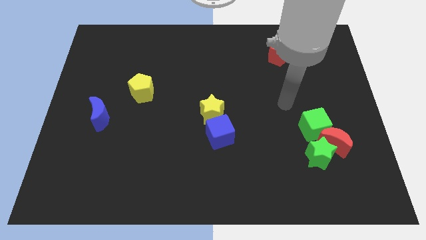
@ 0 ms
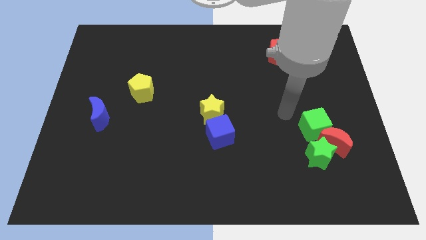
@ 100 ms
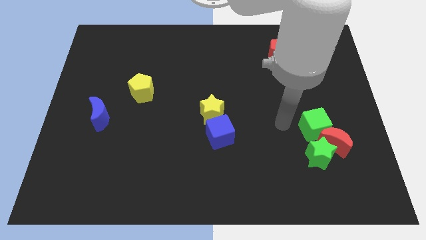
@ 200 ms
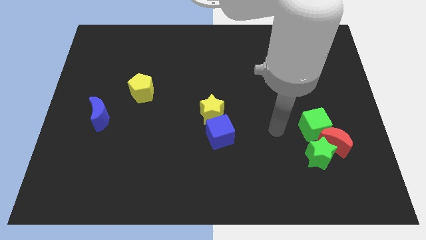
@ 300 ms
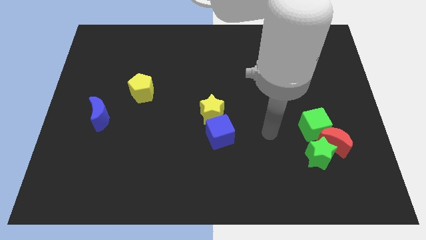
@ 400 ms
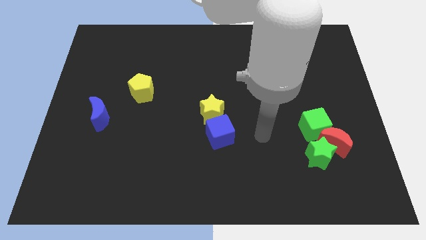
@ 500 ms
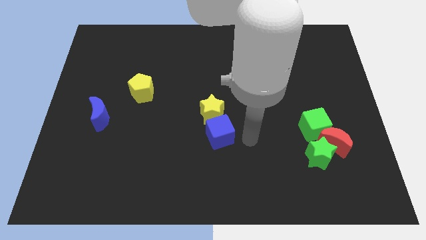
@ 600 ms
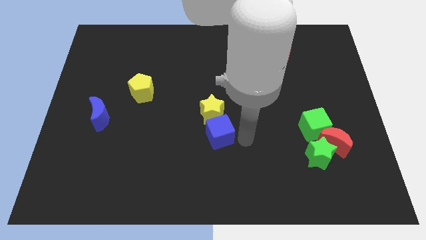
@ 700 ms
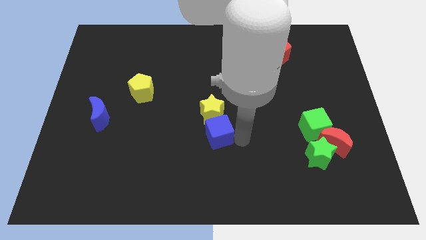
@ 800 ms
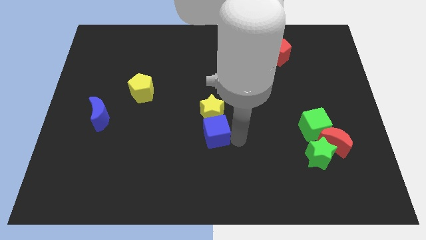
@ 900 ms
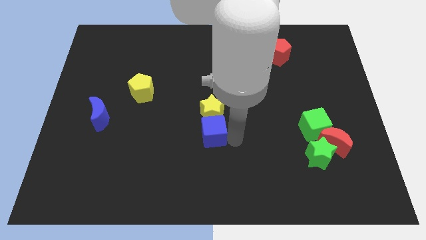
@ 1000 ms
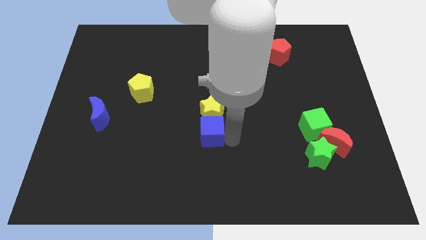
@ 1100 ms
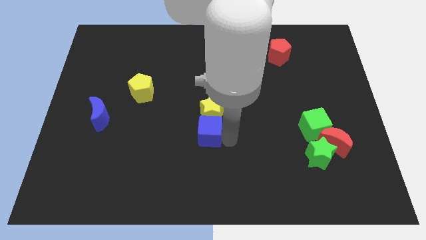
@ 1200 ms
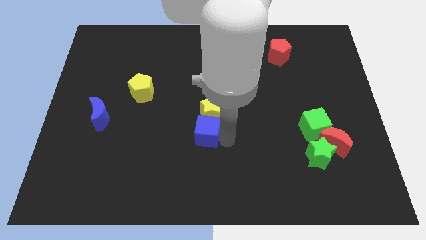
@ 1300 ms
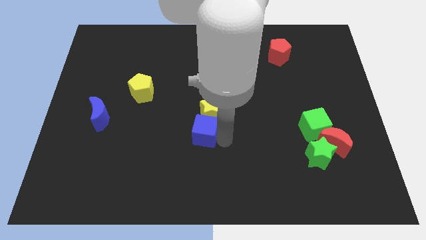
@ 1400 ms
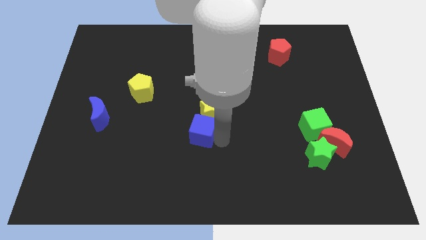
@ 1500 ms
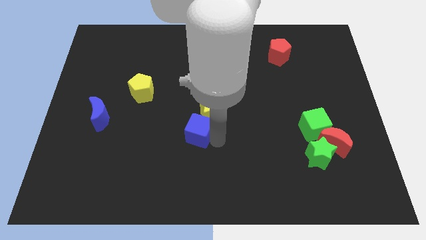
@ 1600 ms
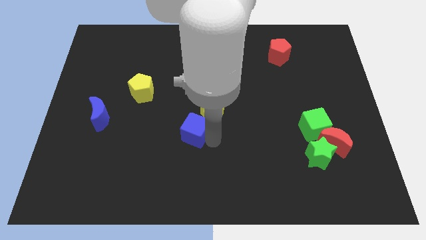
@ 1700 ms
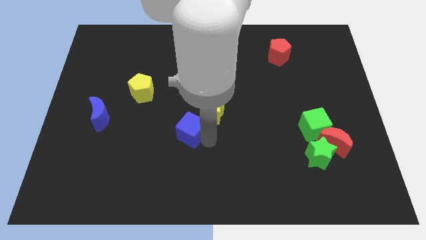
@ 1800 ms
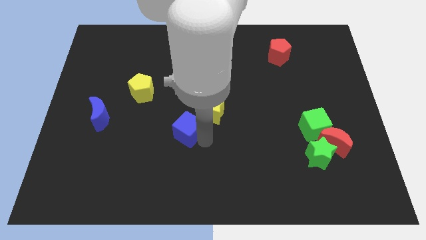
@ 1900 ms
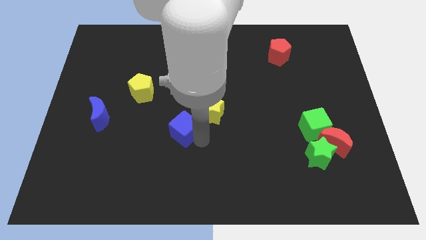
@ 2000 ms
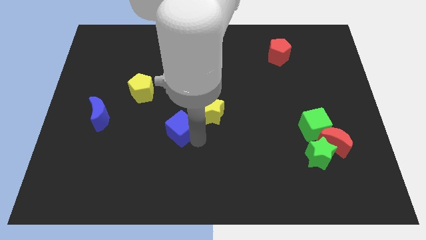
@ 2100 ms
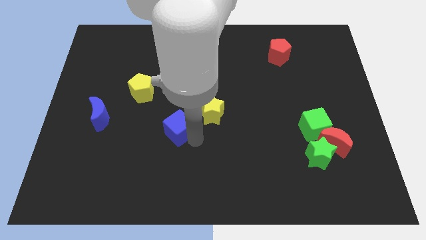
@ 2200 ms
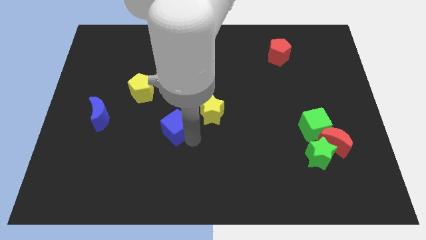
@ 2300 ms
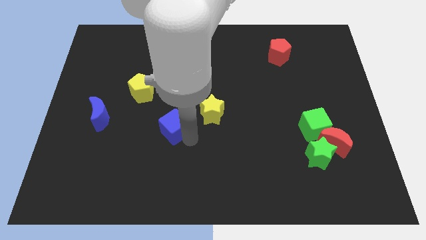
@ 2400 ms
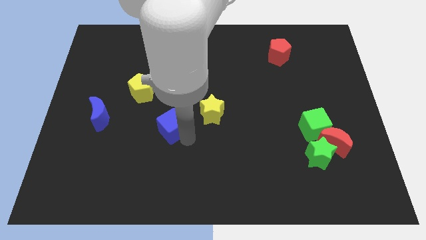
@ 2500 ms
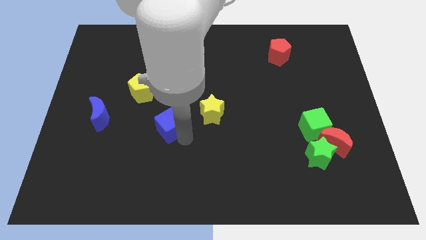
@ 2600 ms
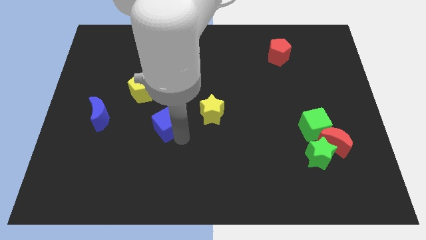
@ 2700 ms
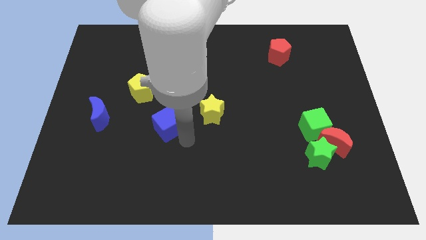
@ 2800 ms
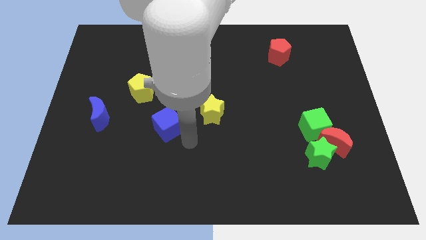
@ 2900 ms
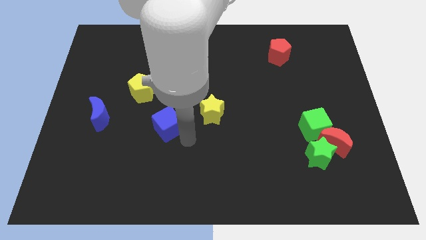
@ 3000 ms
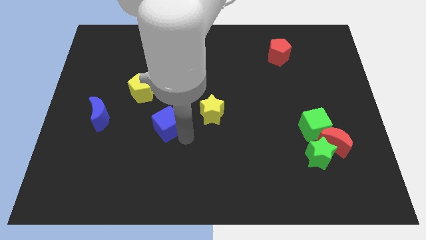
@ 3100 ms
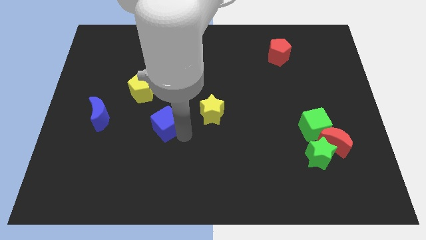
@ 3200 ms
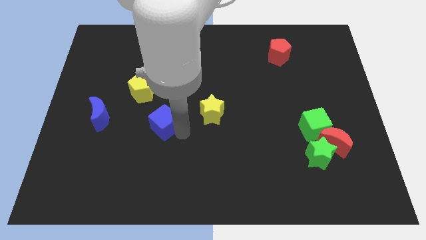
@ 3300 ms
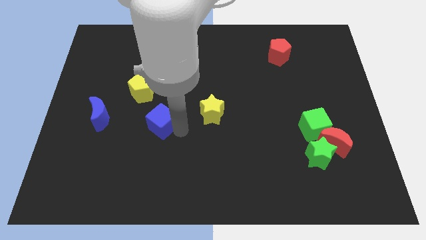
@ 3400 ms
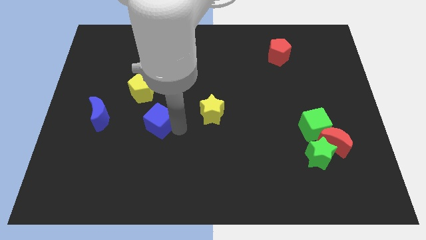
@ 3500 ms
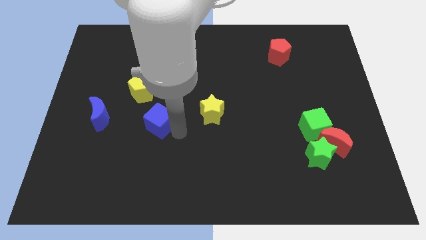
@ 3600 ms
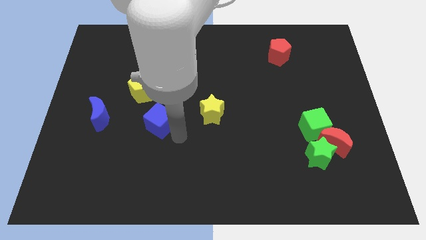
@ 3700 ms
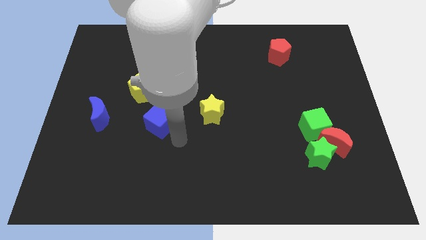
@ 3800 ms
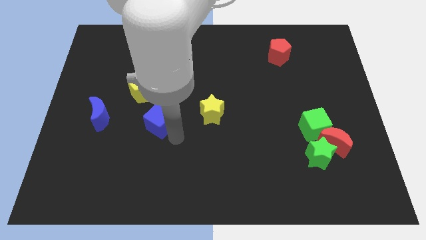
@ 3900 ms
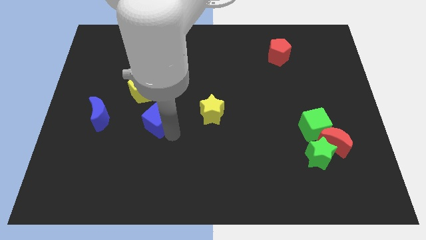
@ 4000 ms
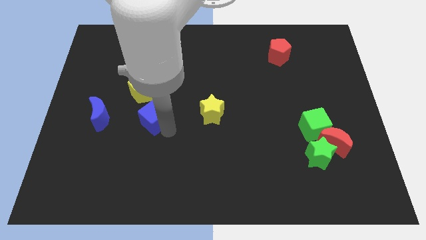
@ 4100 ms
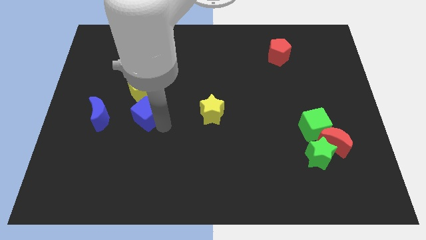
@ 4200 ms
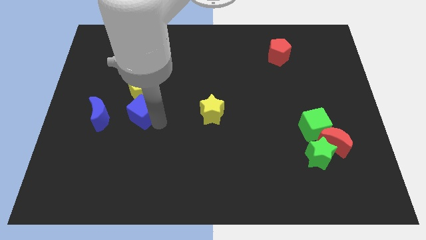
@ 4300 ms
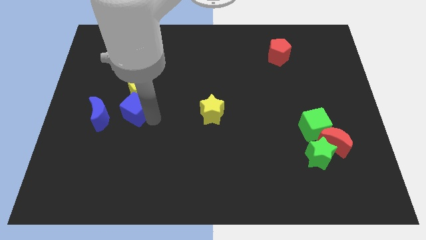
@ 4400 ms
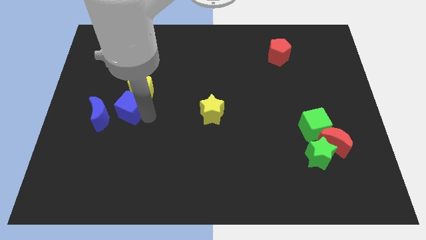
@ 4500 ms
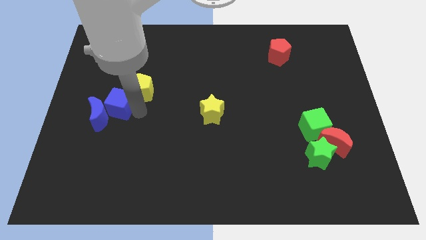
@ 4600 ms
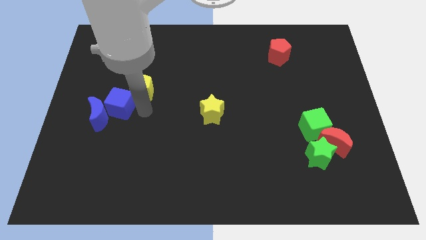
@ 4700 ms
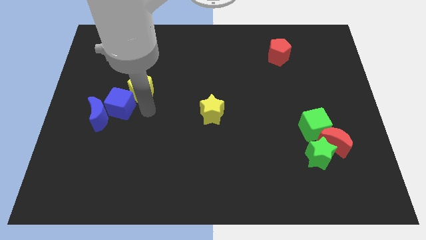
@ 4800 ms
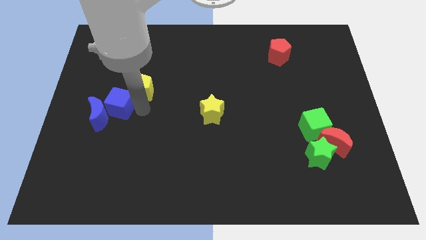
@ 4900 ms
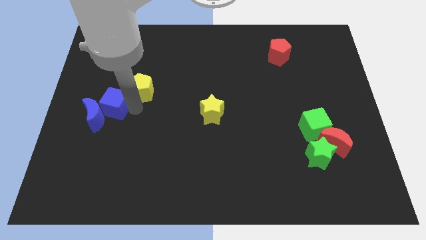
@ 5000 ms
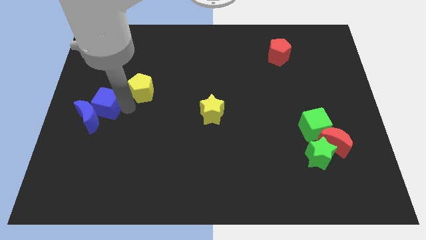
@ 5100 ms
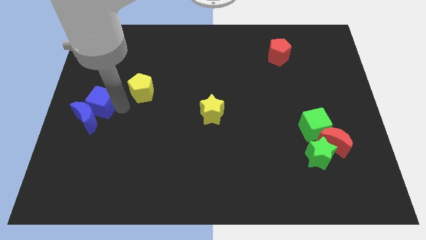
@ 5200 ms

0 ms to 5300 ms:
push the blue cube to the left side of the board

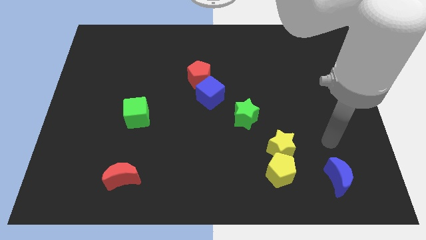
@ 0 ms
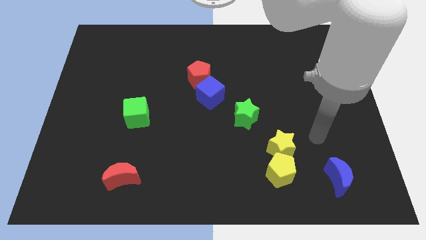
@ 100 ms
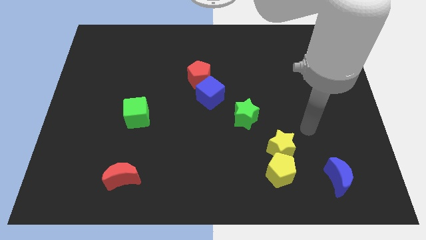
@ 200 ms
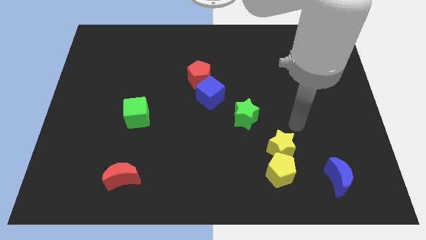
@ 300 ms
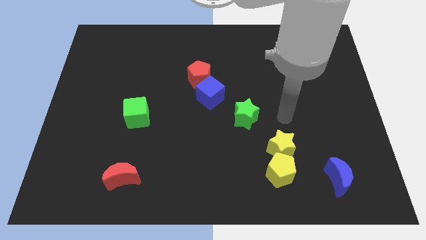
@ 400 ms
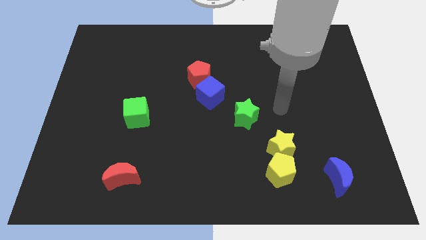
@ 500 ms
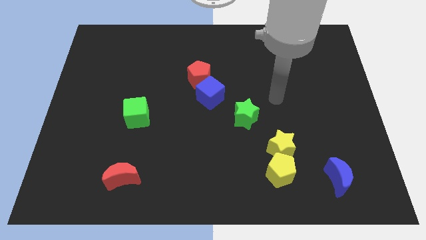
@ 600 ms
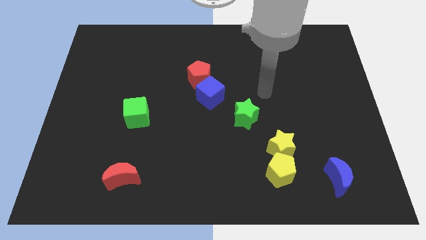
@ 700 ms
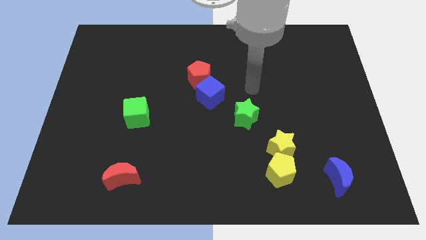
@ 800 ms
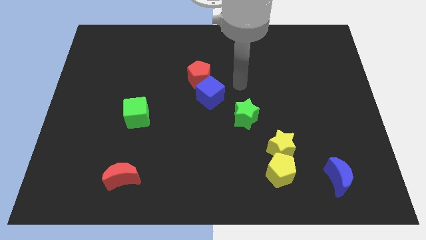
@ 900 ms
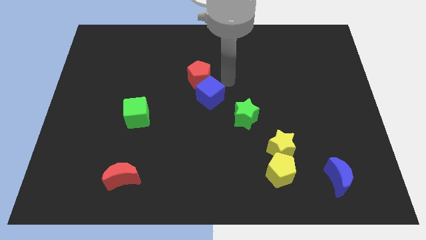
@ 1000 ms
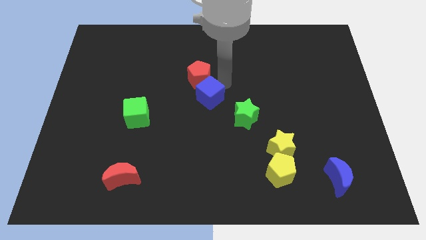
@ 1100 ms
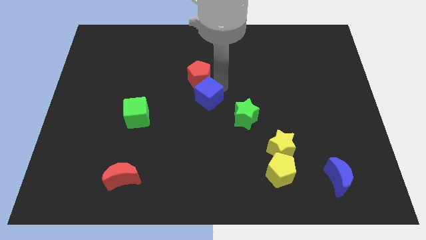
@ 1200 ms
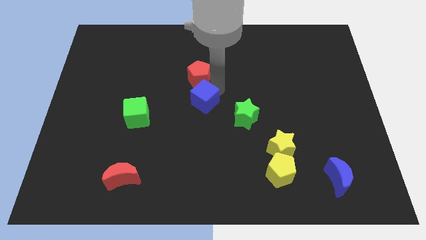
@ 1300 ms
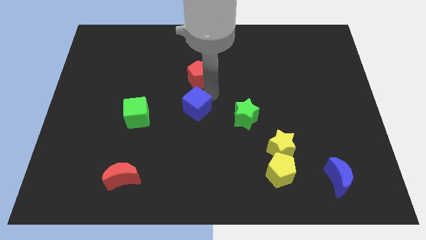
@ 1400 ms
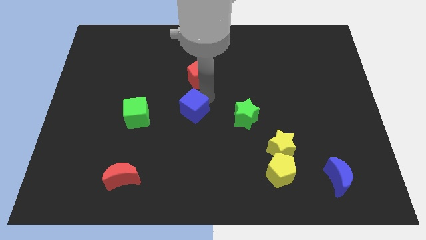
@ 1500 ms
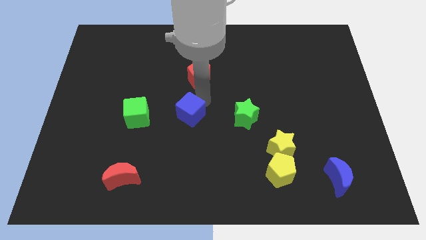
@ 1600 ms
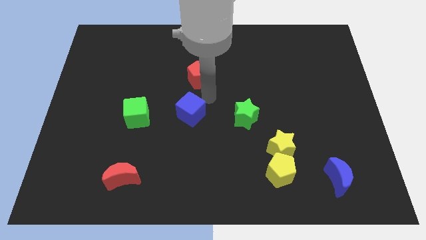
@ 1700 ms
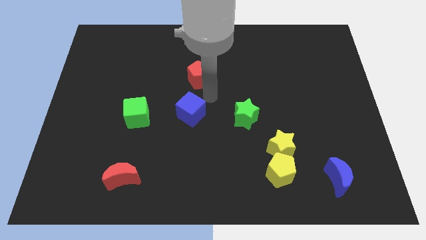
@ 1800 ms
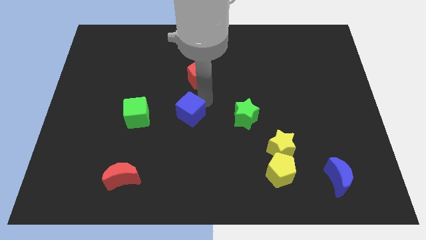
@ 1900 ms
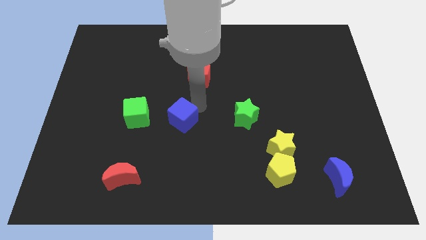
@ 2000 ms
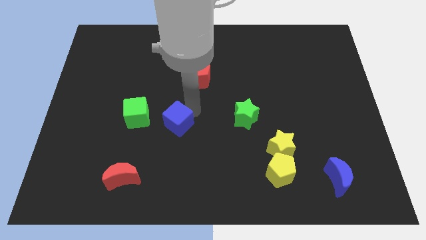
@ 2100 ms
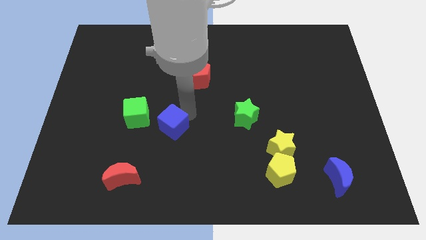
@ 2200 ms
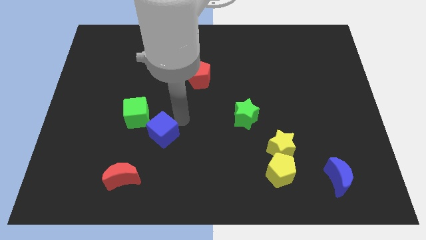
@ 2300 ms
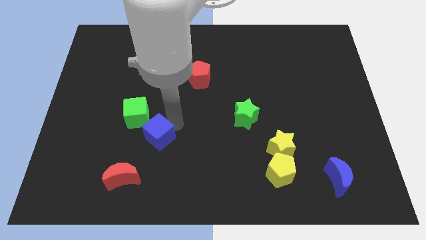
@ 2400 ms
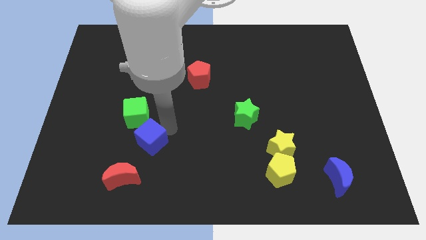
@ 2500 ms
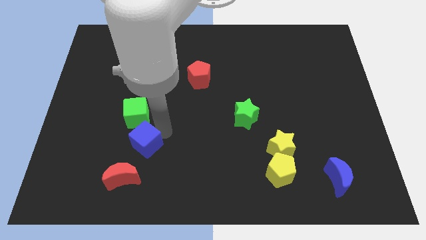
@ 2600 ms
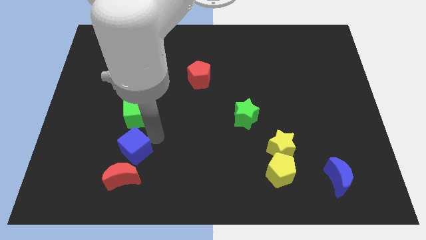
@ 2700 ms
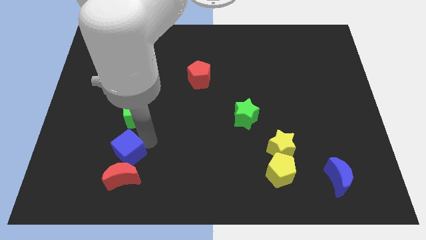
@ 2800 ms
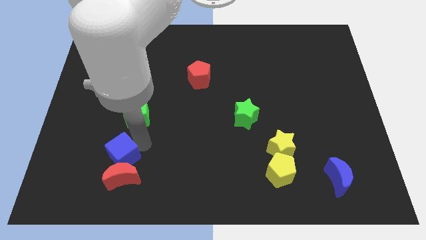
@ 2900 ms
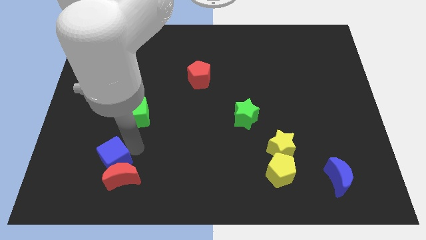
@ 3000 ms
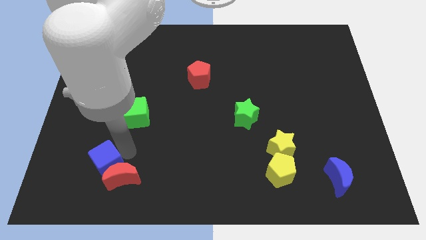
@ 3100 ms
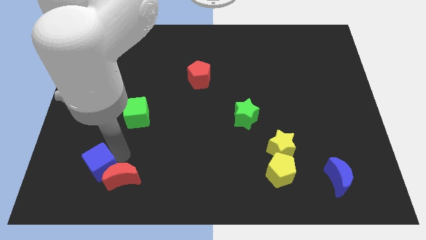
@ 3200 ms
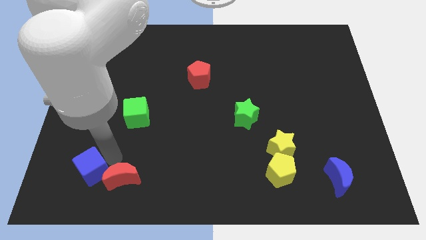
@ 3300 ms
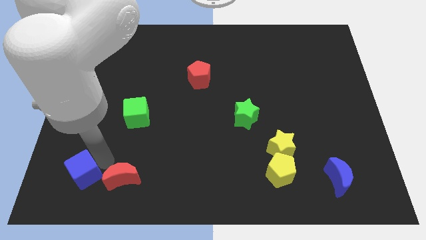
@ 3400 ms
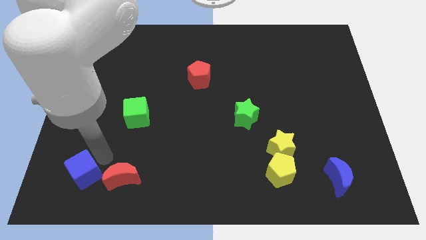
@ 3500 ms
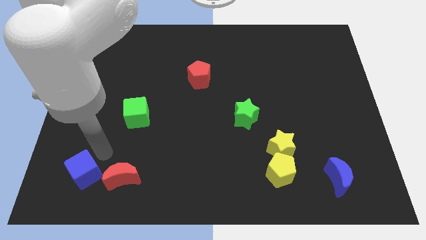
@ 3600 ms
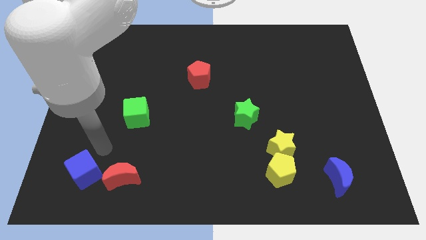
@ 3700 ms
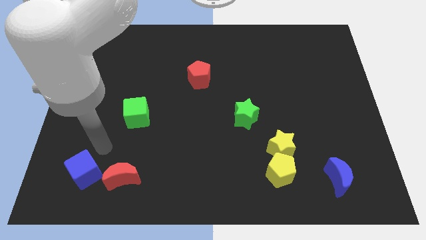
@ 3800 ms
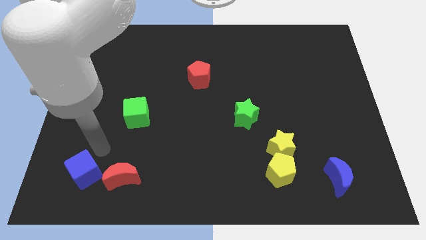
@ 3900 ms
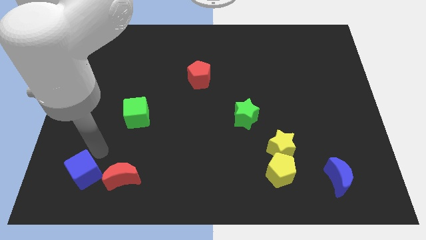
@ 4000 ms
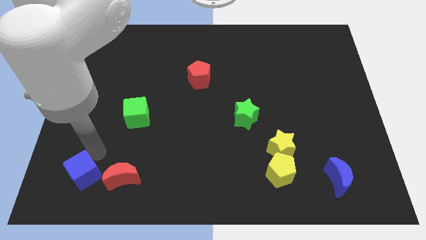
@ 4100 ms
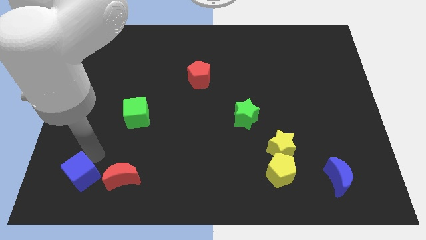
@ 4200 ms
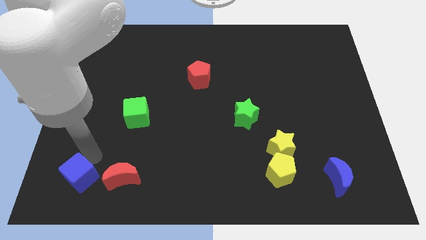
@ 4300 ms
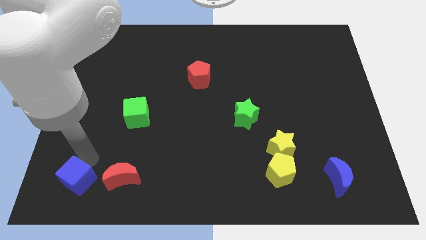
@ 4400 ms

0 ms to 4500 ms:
slide the blue cube to the bottom left corner
